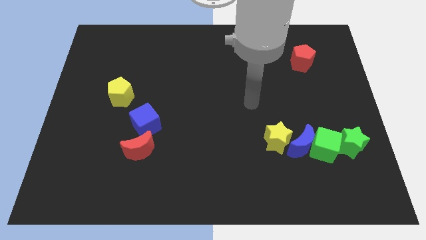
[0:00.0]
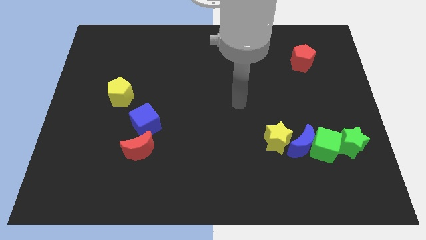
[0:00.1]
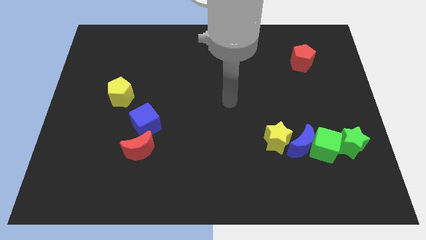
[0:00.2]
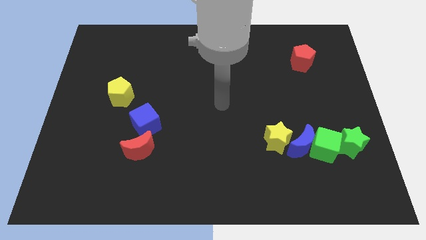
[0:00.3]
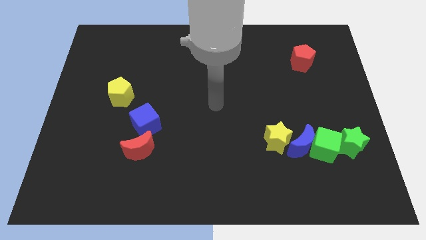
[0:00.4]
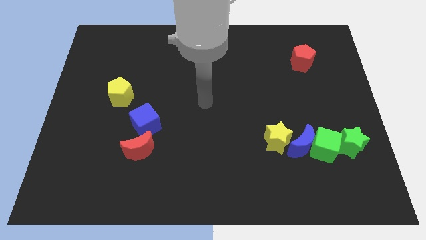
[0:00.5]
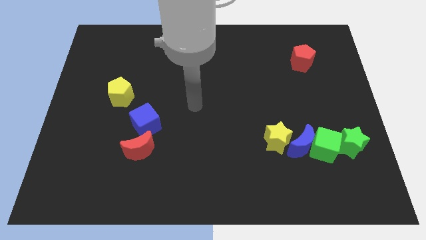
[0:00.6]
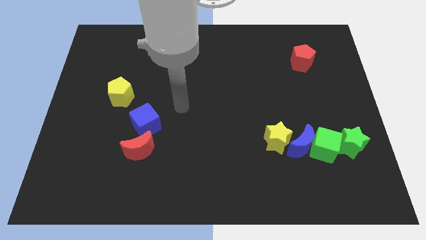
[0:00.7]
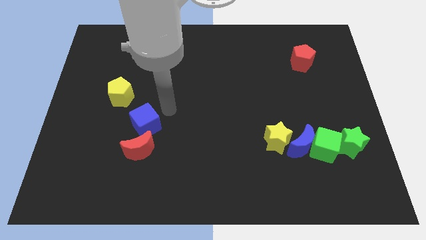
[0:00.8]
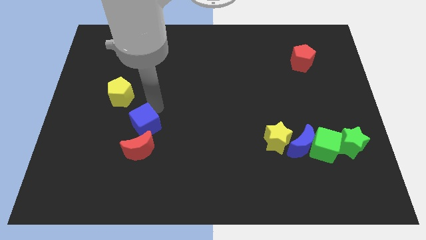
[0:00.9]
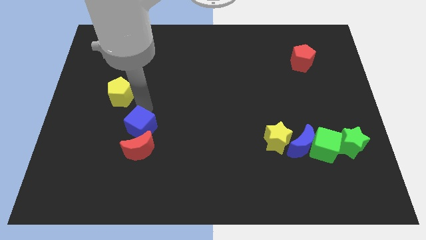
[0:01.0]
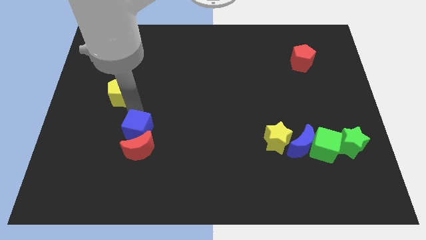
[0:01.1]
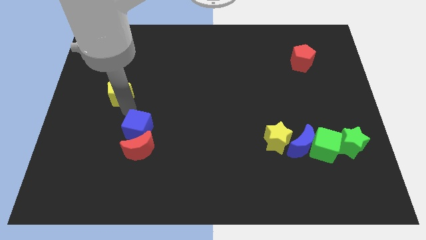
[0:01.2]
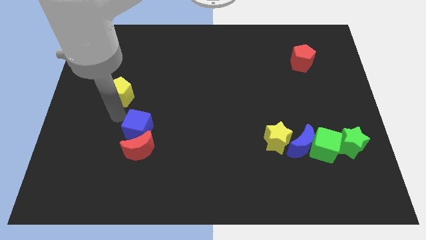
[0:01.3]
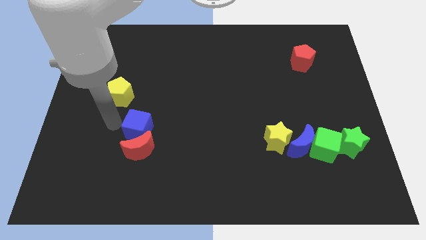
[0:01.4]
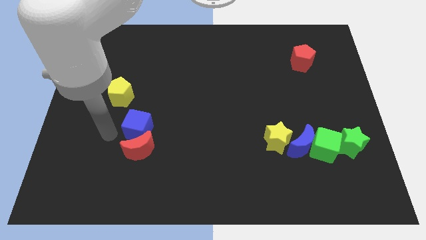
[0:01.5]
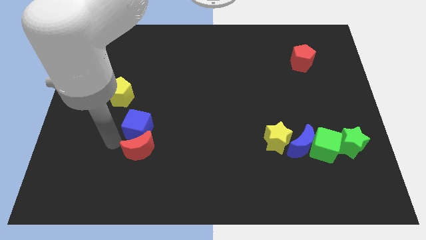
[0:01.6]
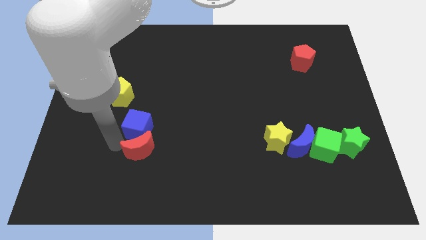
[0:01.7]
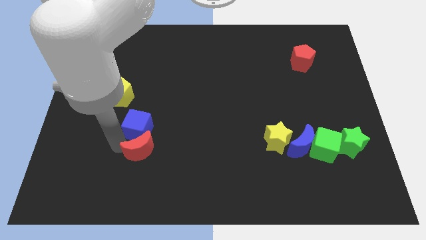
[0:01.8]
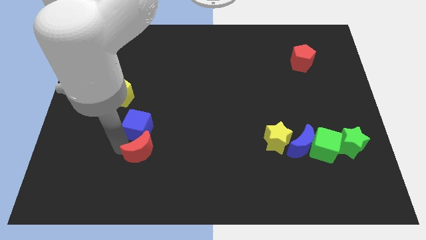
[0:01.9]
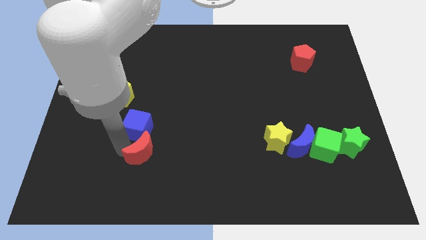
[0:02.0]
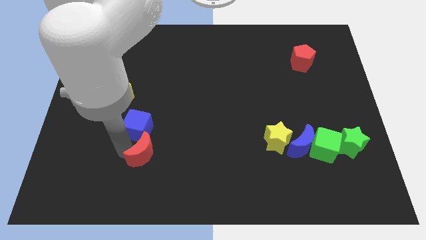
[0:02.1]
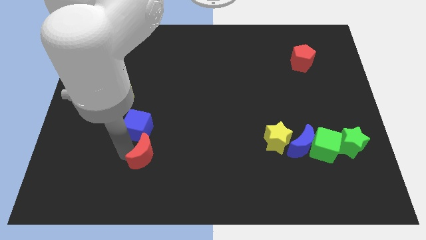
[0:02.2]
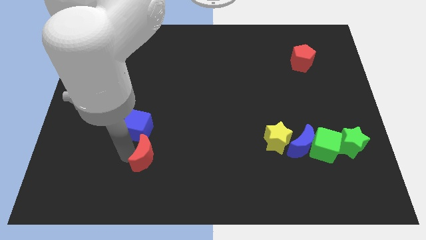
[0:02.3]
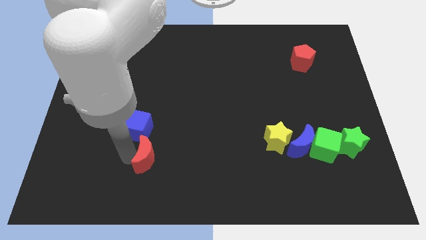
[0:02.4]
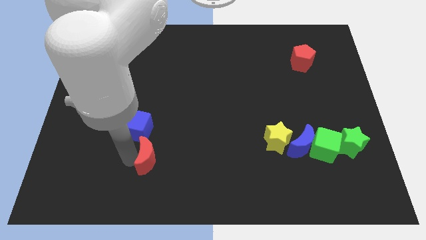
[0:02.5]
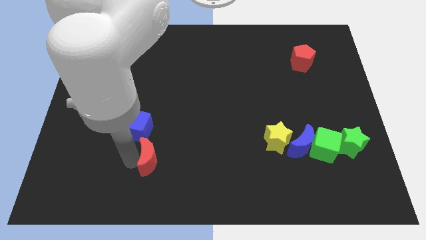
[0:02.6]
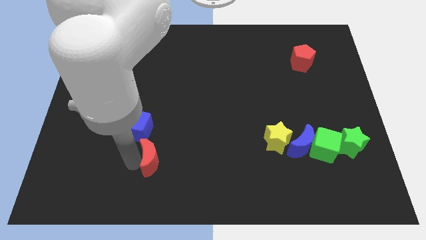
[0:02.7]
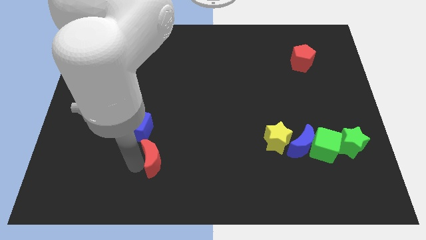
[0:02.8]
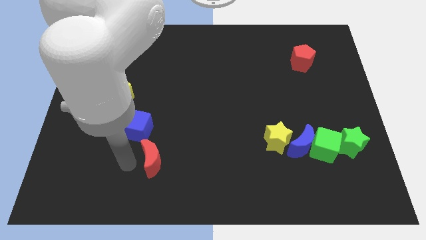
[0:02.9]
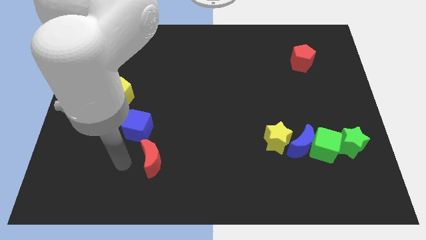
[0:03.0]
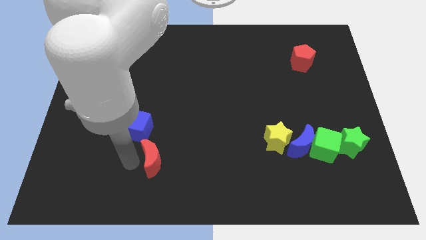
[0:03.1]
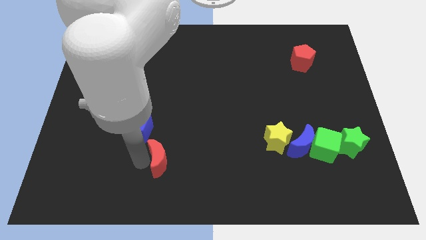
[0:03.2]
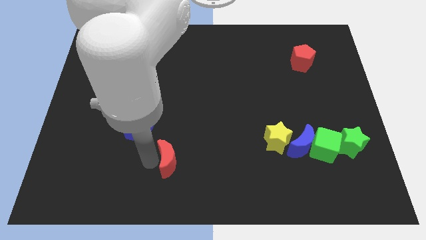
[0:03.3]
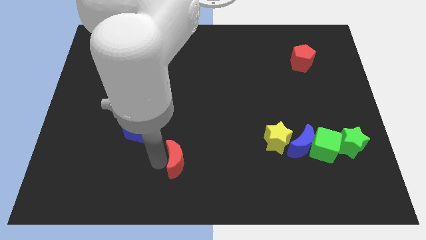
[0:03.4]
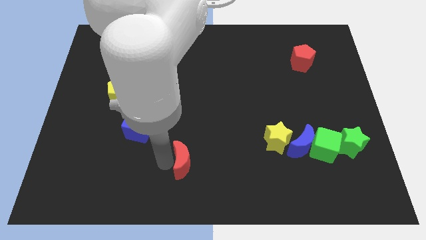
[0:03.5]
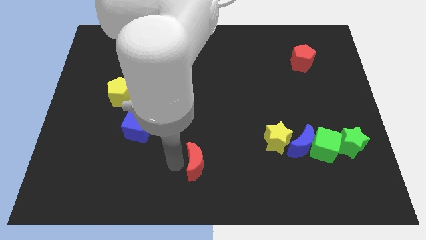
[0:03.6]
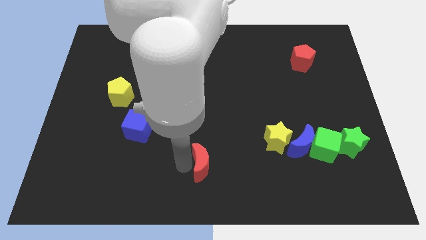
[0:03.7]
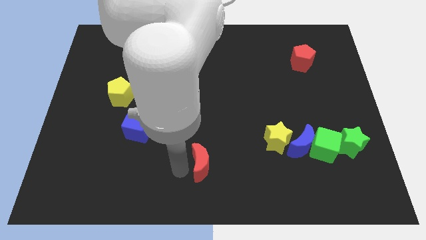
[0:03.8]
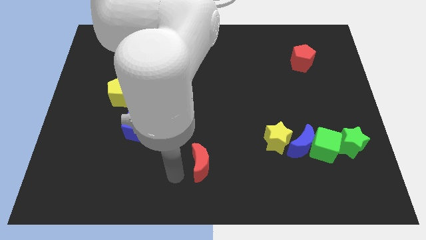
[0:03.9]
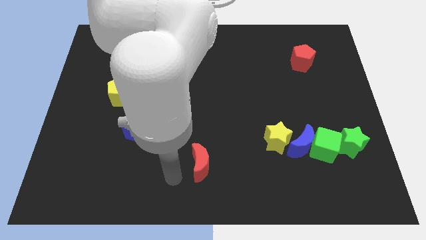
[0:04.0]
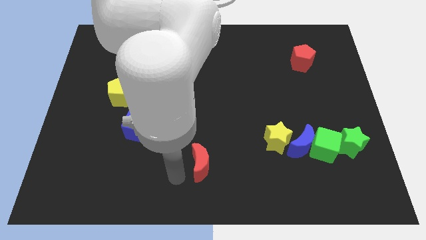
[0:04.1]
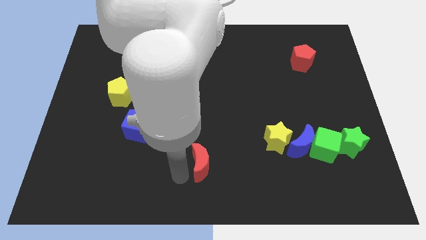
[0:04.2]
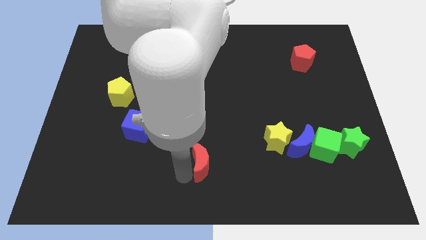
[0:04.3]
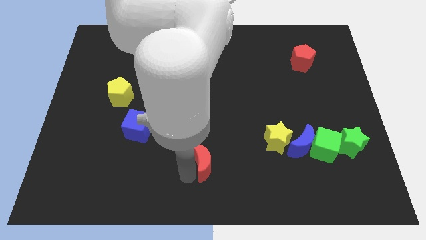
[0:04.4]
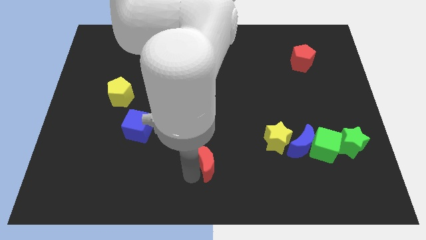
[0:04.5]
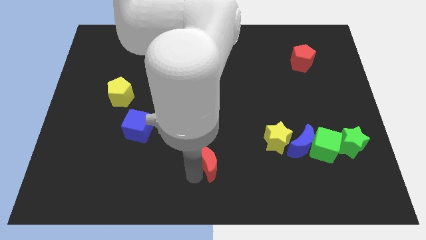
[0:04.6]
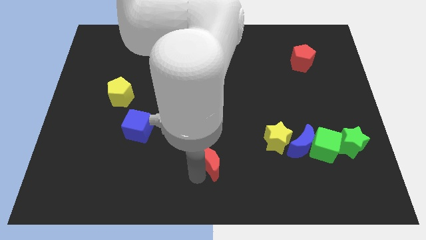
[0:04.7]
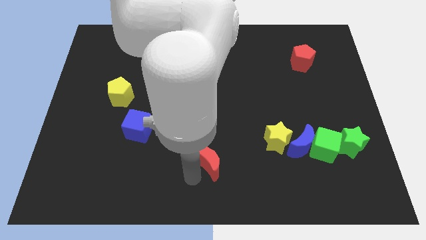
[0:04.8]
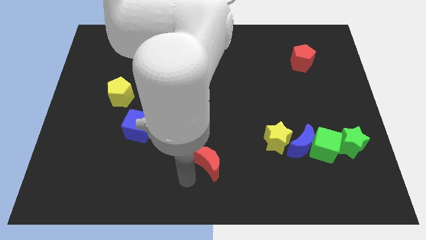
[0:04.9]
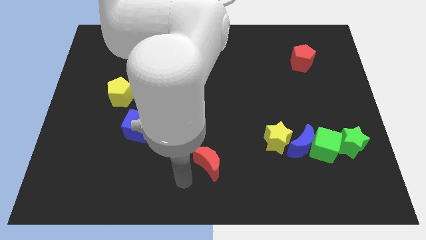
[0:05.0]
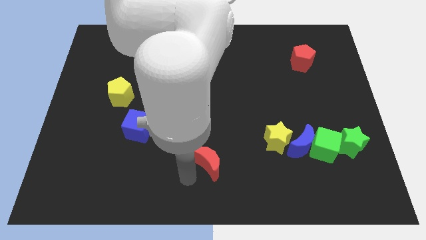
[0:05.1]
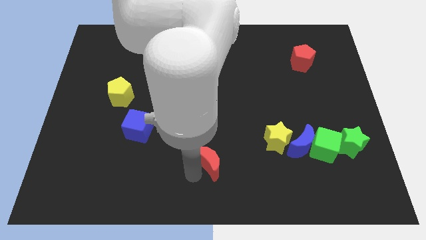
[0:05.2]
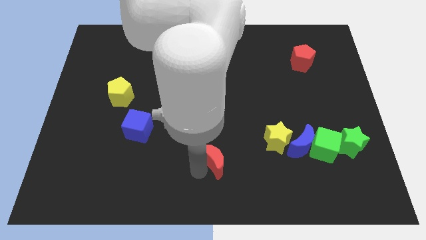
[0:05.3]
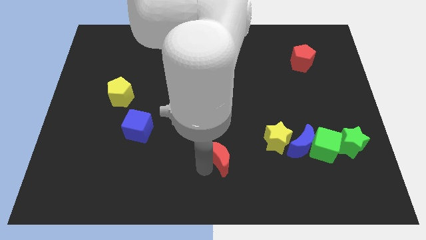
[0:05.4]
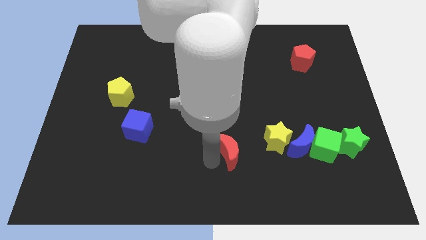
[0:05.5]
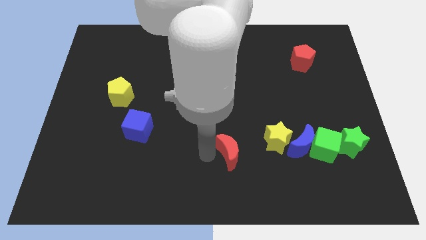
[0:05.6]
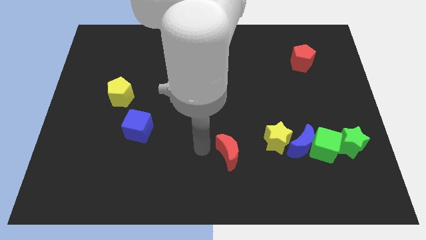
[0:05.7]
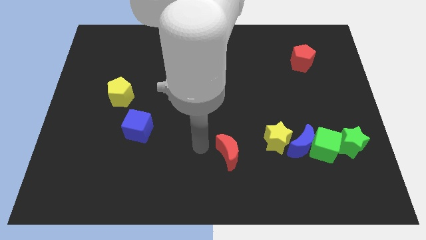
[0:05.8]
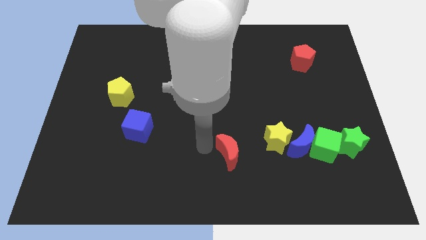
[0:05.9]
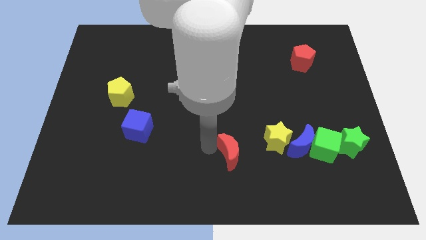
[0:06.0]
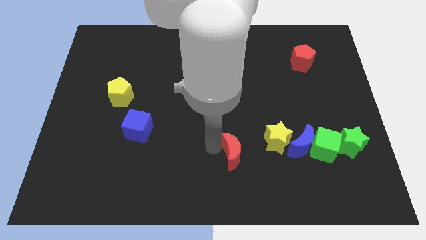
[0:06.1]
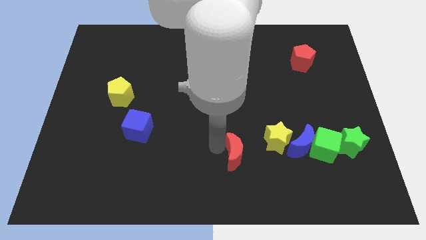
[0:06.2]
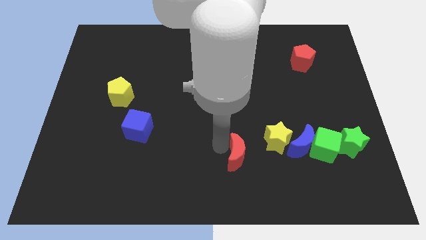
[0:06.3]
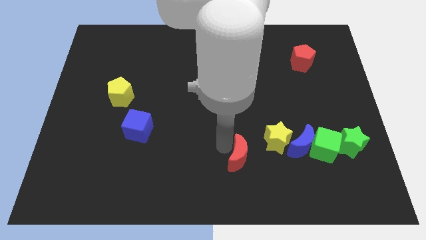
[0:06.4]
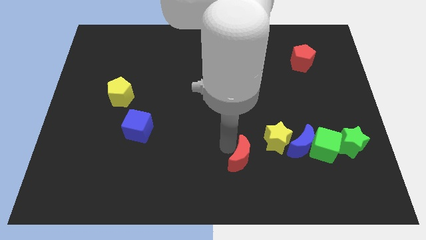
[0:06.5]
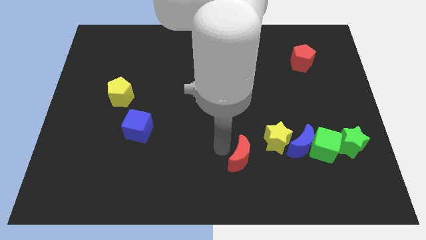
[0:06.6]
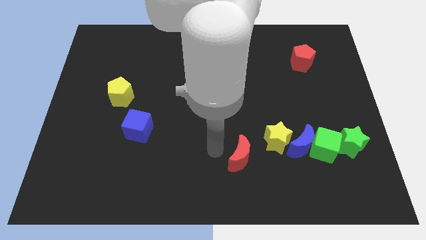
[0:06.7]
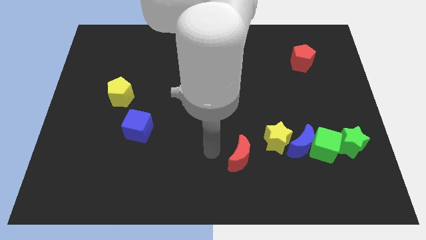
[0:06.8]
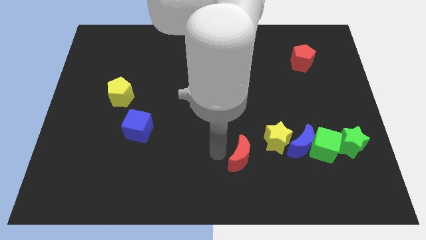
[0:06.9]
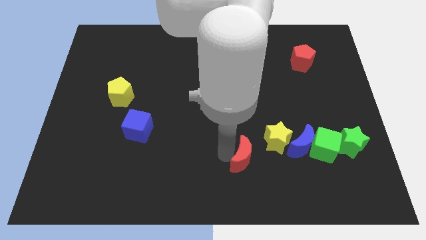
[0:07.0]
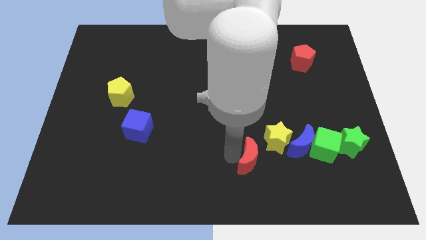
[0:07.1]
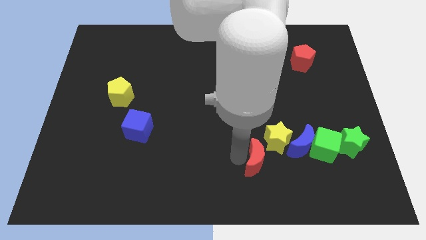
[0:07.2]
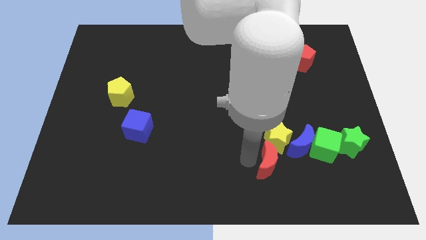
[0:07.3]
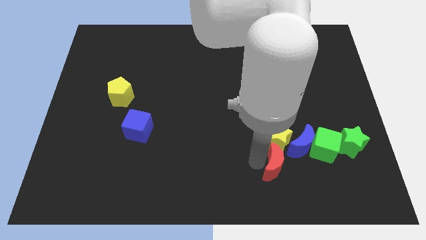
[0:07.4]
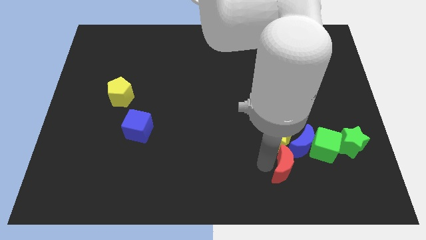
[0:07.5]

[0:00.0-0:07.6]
push the red moon to the bottom left of the green cube

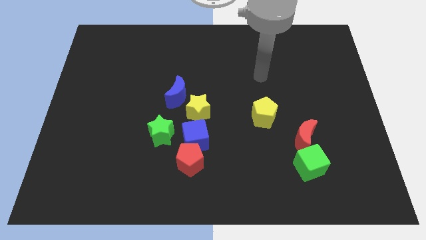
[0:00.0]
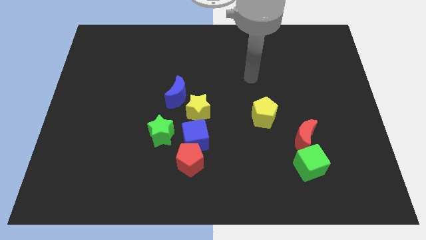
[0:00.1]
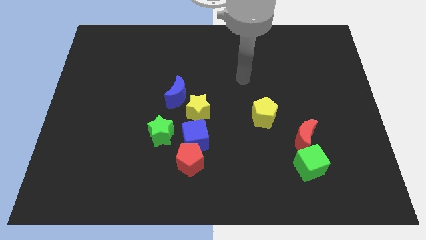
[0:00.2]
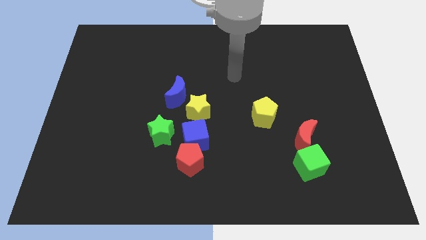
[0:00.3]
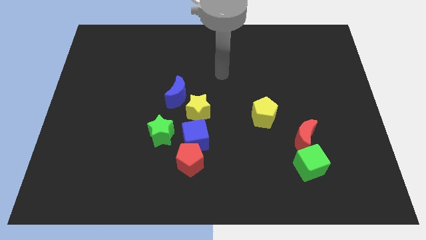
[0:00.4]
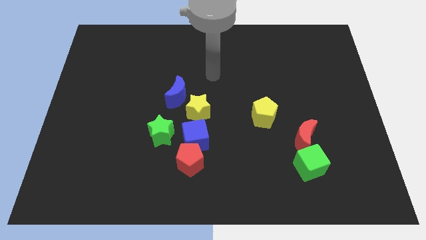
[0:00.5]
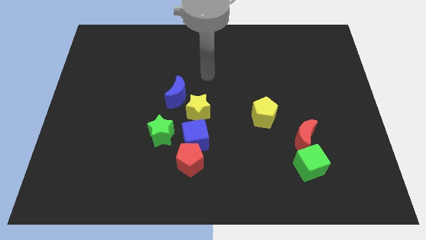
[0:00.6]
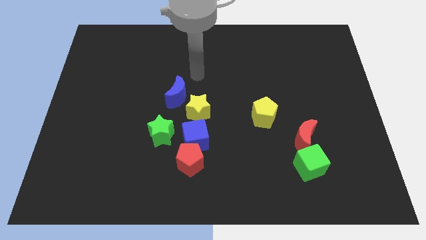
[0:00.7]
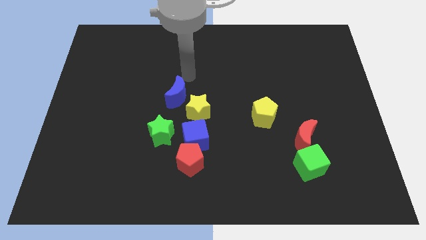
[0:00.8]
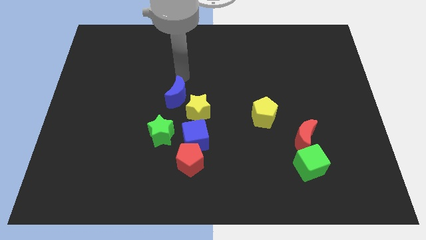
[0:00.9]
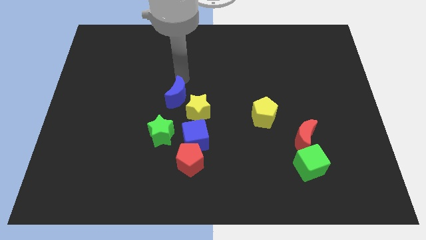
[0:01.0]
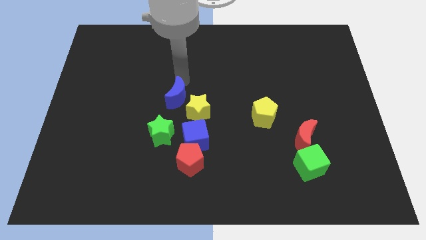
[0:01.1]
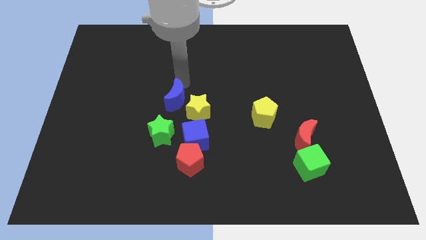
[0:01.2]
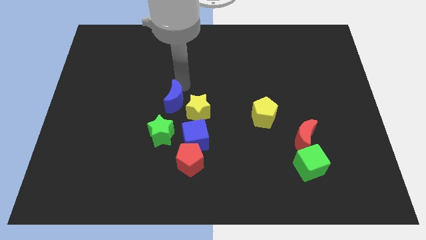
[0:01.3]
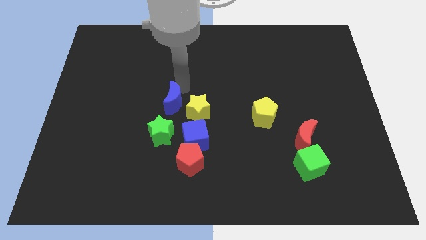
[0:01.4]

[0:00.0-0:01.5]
put the blue moon diagonally up and to the left of the blue cube
